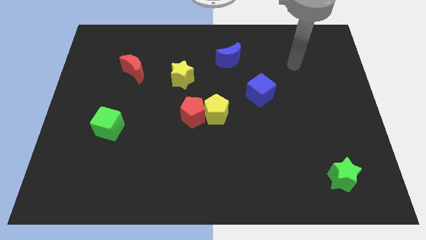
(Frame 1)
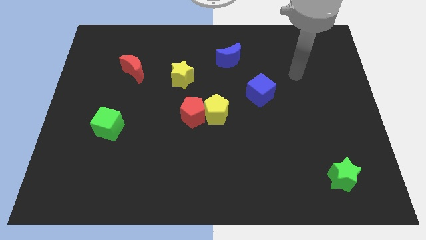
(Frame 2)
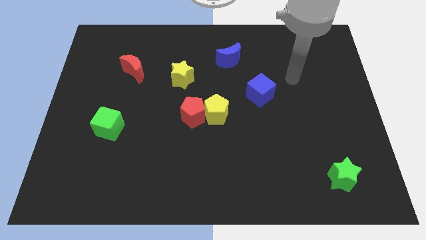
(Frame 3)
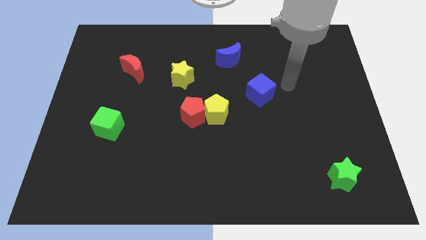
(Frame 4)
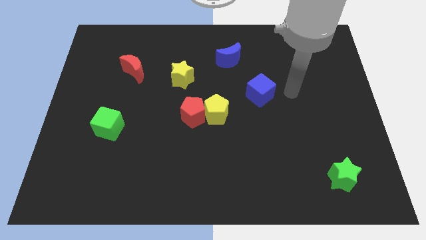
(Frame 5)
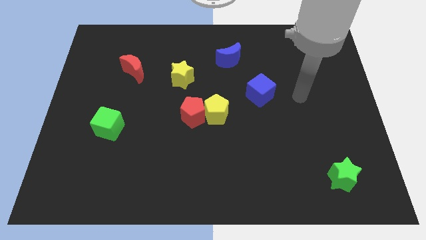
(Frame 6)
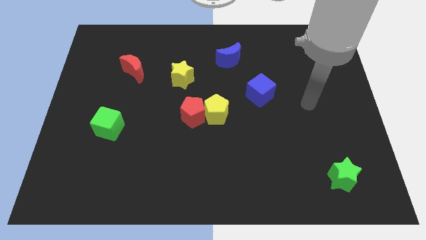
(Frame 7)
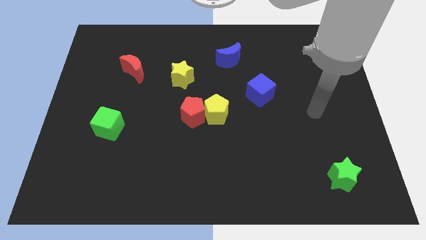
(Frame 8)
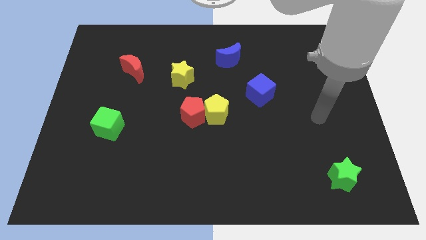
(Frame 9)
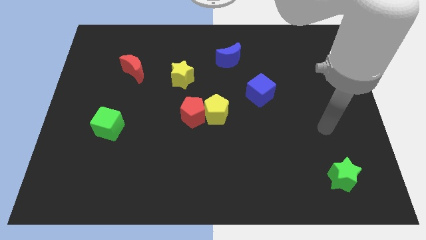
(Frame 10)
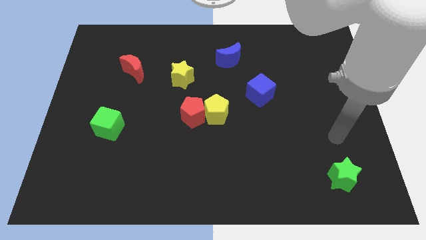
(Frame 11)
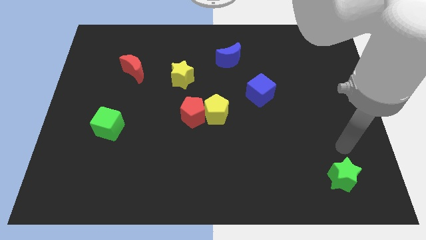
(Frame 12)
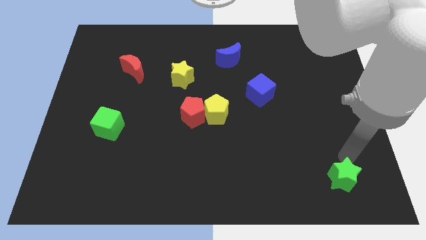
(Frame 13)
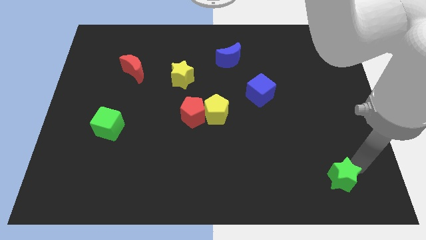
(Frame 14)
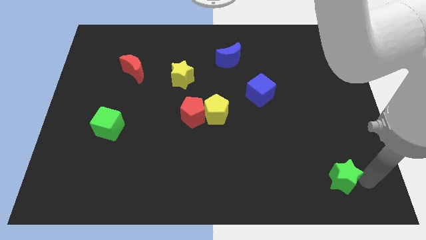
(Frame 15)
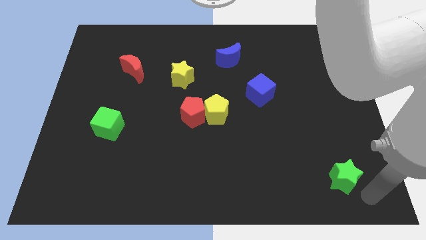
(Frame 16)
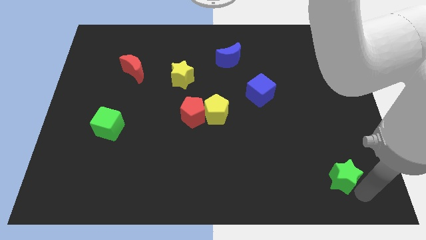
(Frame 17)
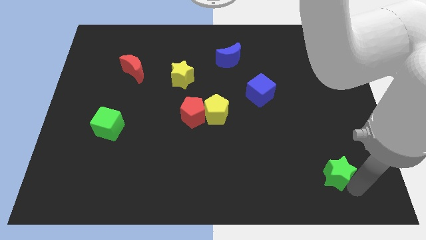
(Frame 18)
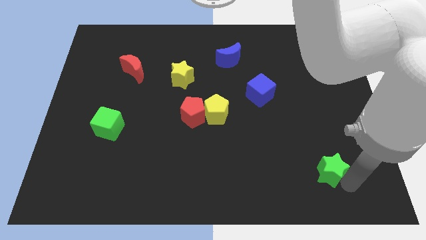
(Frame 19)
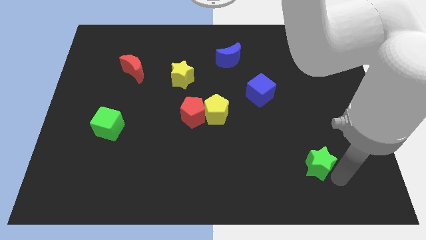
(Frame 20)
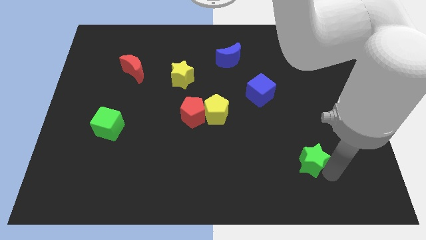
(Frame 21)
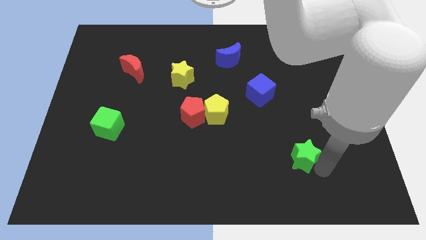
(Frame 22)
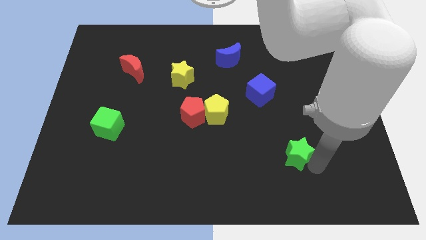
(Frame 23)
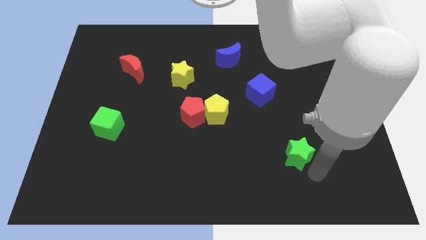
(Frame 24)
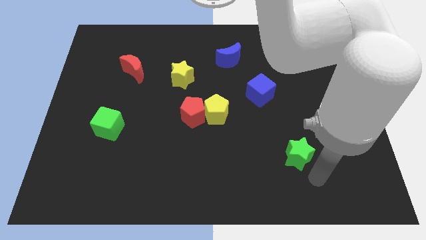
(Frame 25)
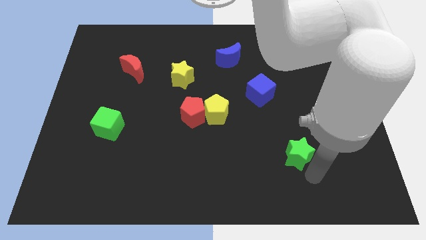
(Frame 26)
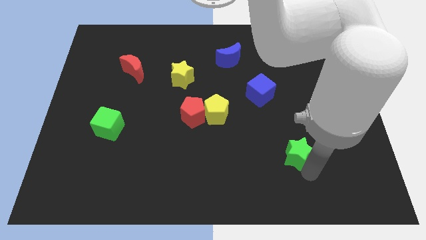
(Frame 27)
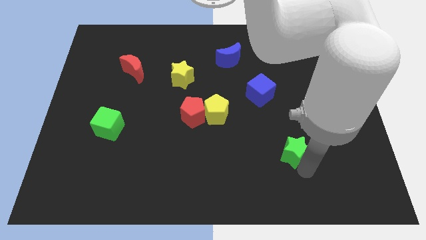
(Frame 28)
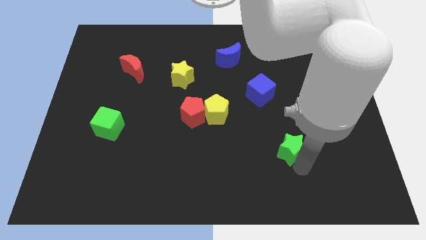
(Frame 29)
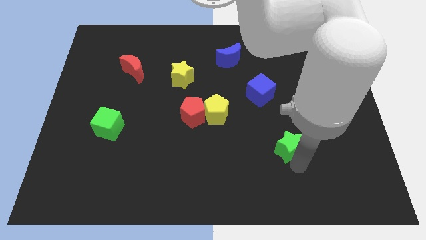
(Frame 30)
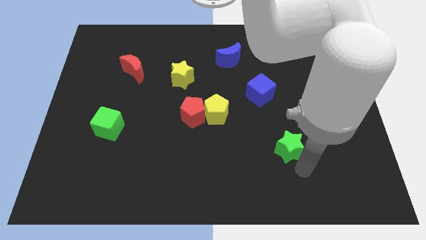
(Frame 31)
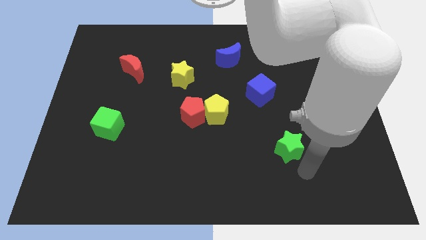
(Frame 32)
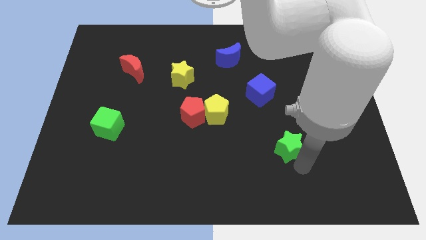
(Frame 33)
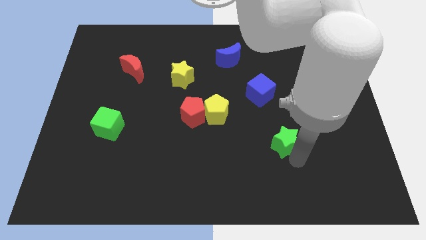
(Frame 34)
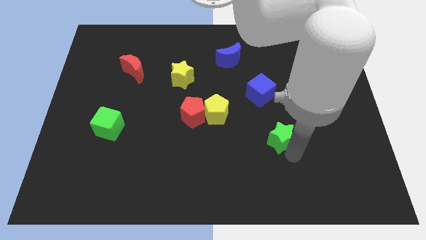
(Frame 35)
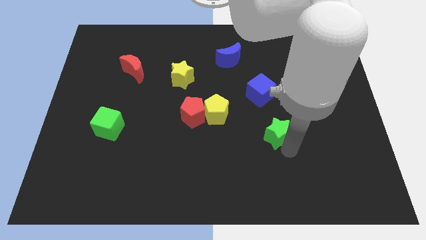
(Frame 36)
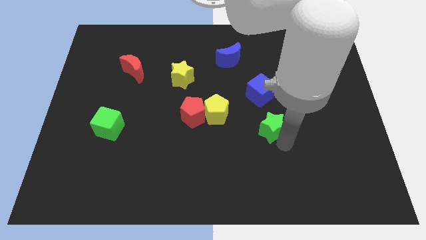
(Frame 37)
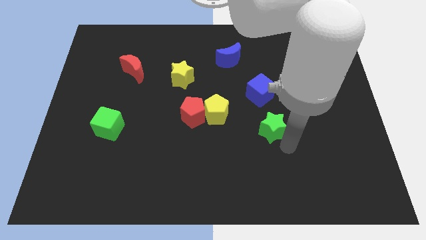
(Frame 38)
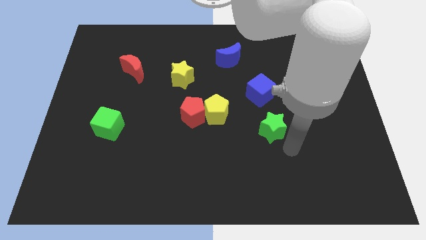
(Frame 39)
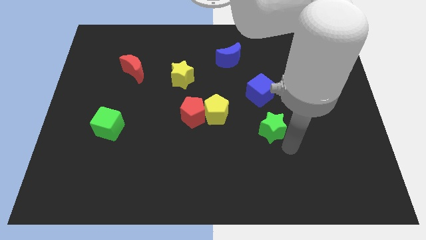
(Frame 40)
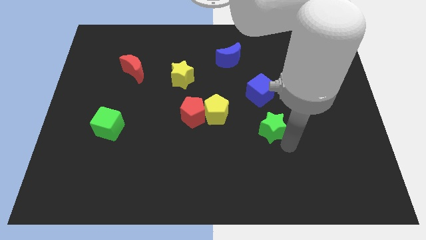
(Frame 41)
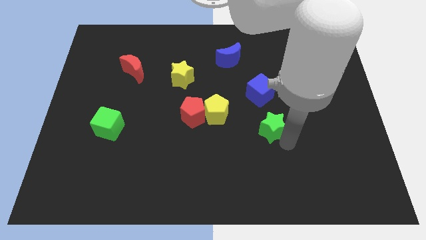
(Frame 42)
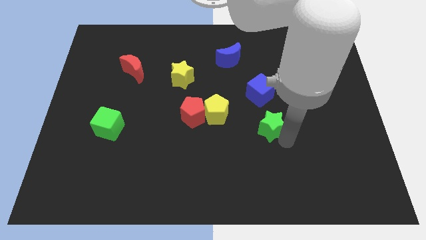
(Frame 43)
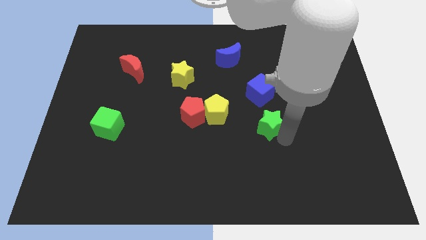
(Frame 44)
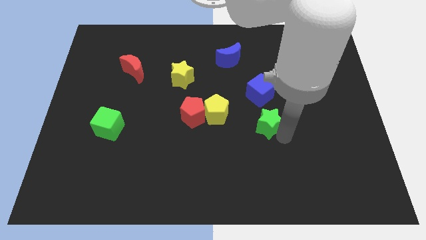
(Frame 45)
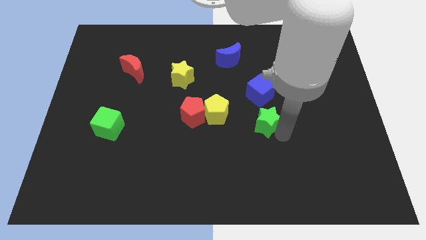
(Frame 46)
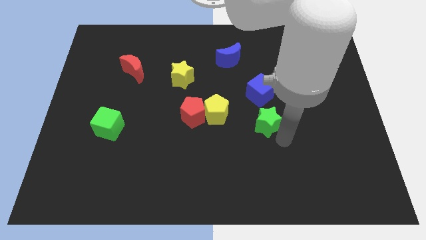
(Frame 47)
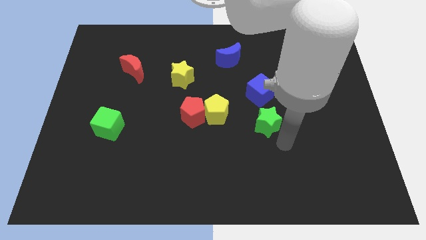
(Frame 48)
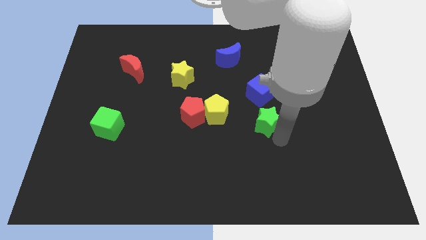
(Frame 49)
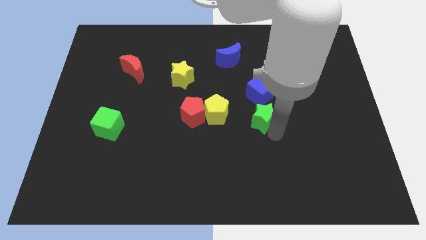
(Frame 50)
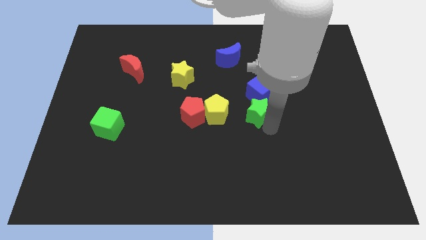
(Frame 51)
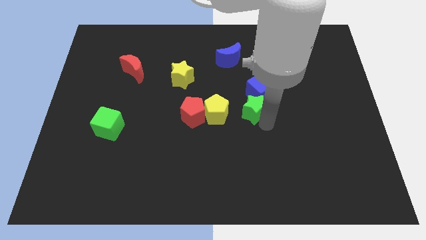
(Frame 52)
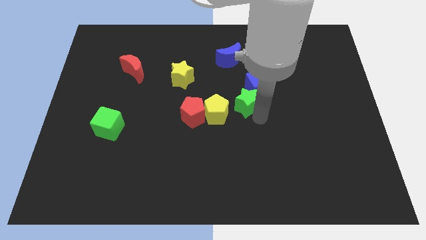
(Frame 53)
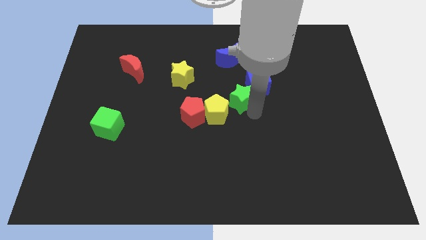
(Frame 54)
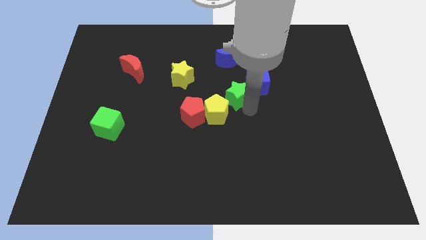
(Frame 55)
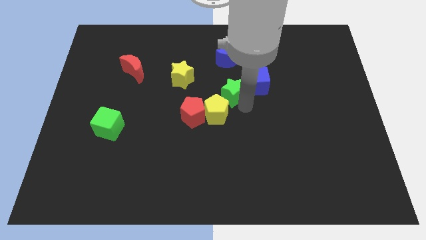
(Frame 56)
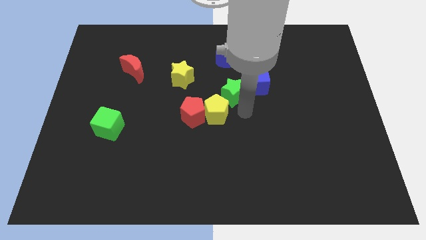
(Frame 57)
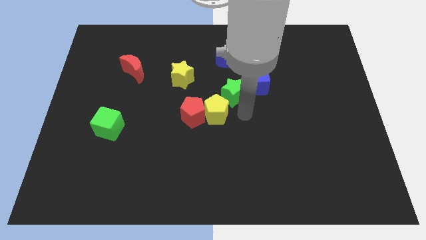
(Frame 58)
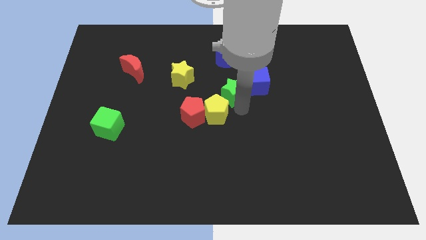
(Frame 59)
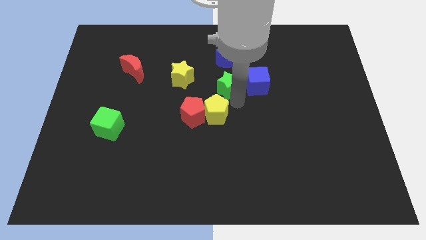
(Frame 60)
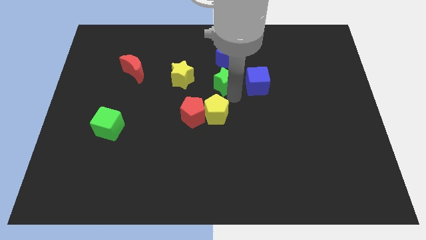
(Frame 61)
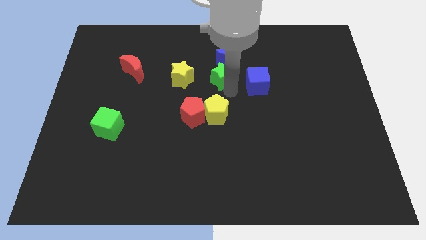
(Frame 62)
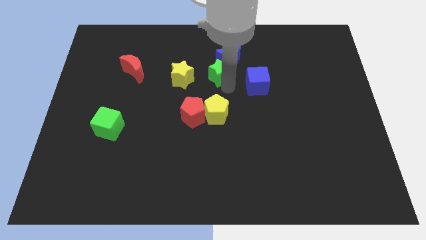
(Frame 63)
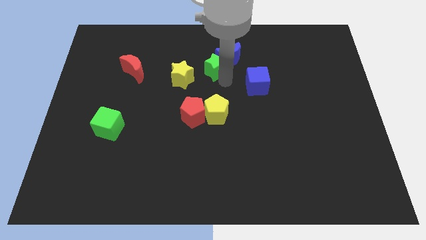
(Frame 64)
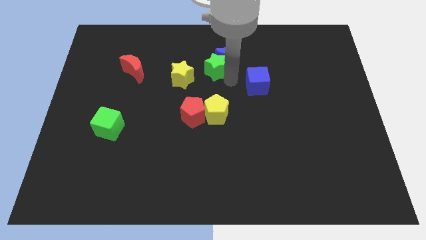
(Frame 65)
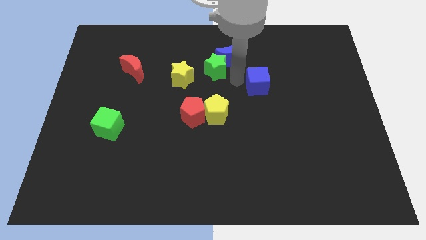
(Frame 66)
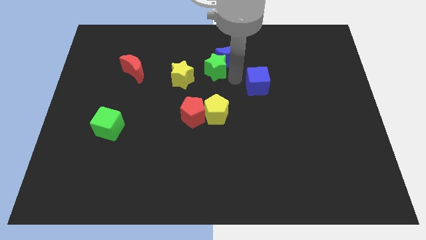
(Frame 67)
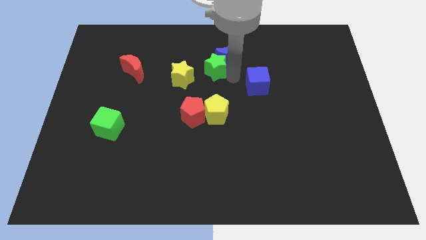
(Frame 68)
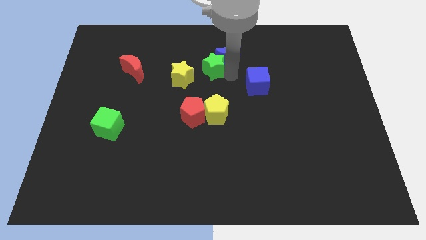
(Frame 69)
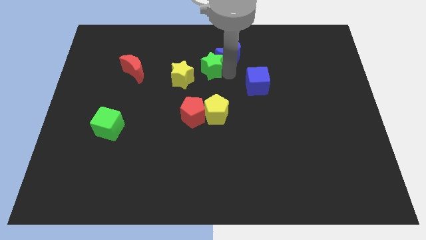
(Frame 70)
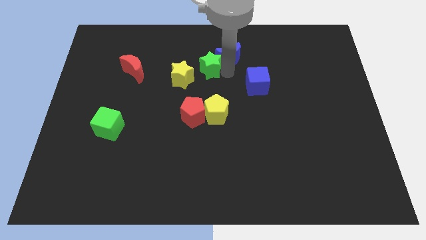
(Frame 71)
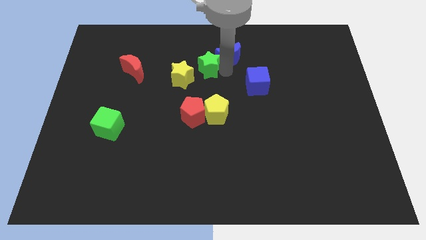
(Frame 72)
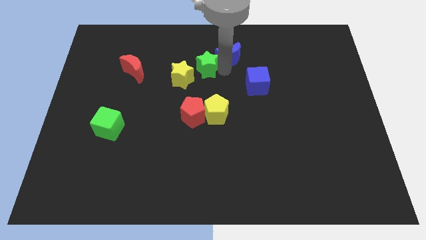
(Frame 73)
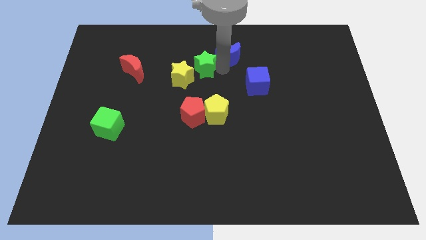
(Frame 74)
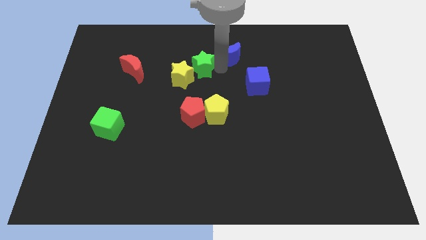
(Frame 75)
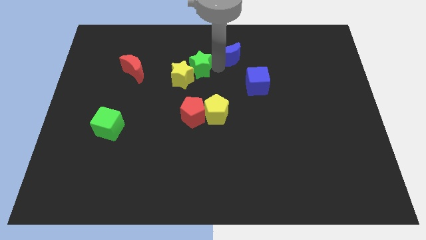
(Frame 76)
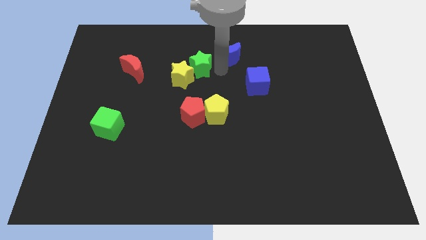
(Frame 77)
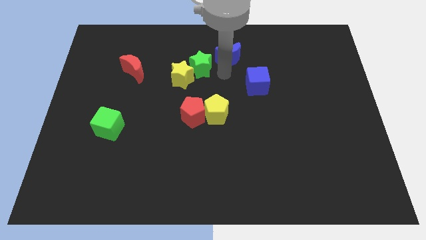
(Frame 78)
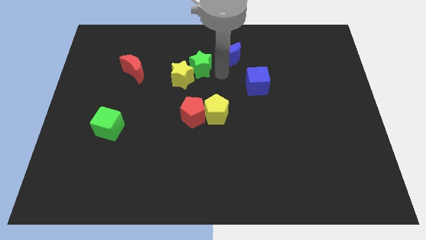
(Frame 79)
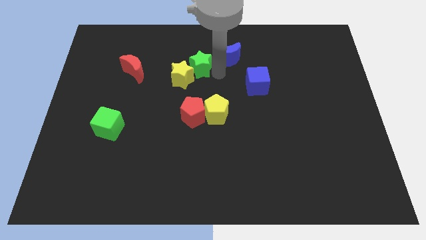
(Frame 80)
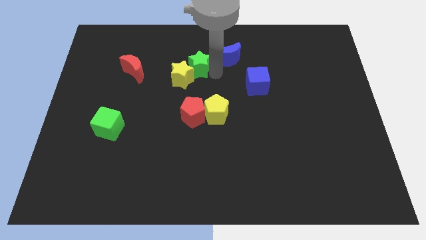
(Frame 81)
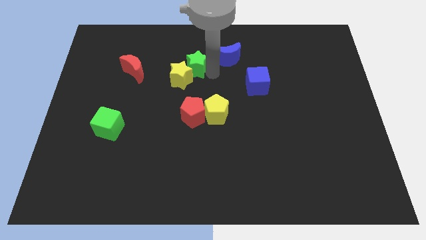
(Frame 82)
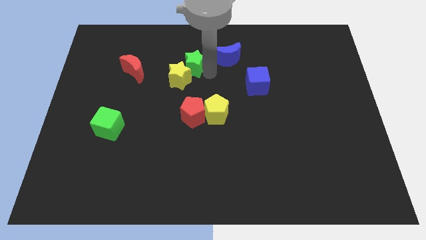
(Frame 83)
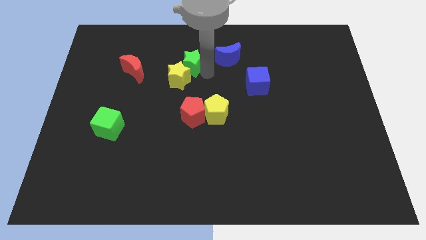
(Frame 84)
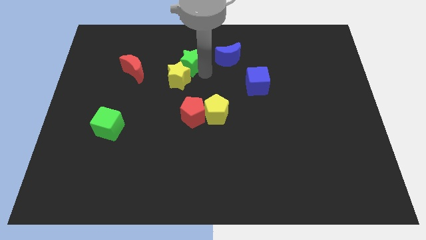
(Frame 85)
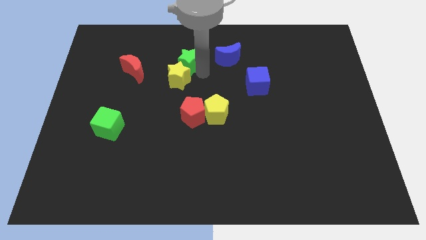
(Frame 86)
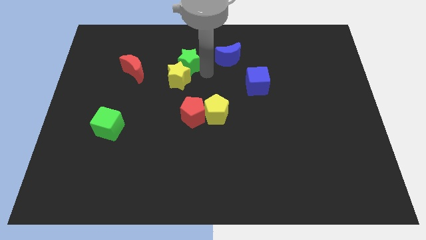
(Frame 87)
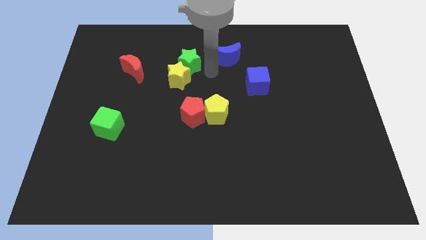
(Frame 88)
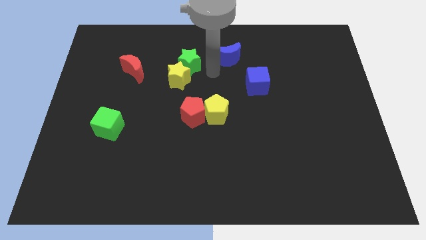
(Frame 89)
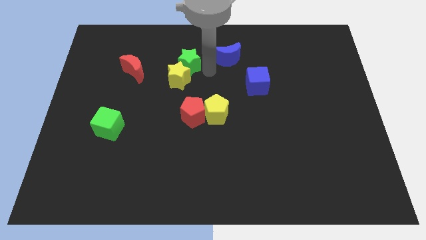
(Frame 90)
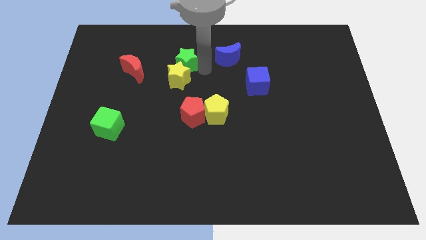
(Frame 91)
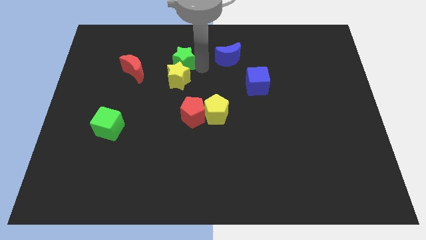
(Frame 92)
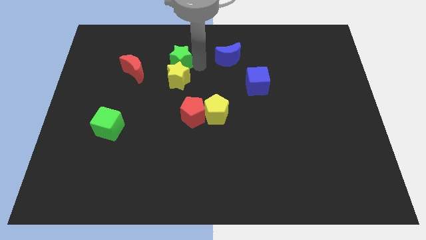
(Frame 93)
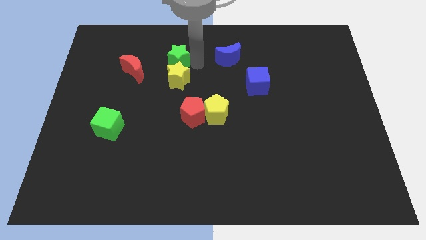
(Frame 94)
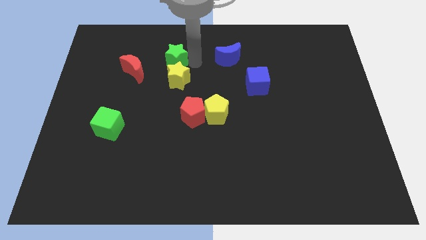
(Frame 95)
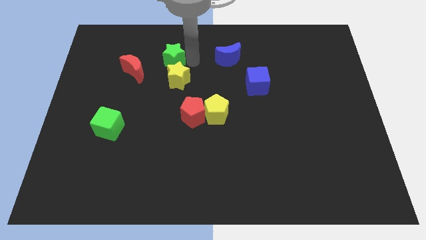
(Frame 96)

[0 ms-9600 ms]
push the green star to the top right of the red moon
